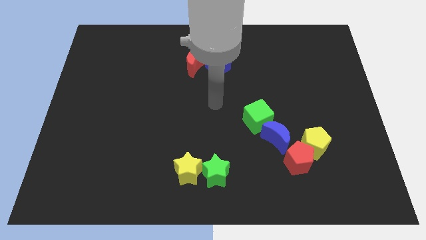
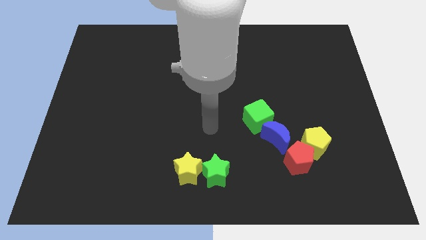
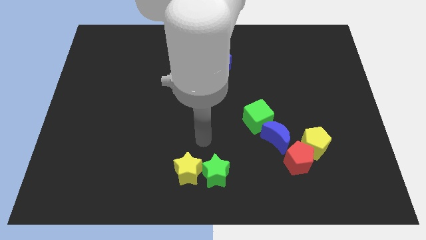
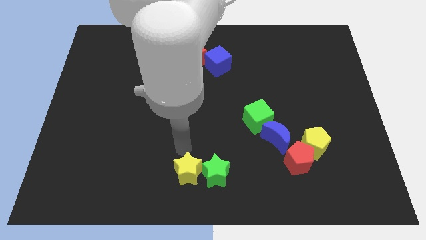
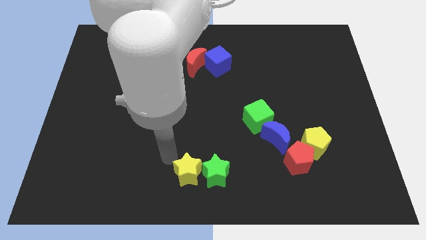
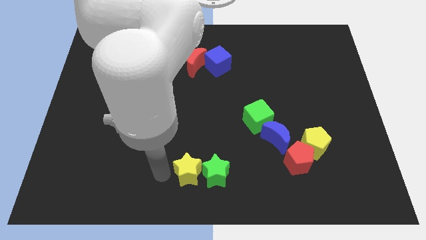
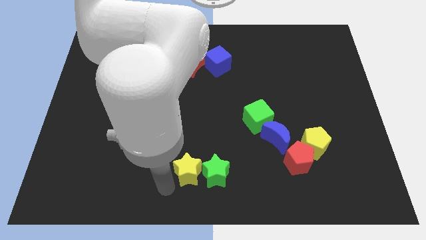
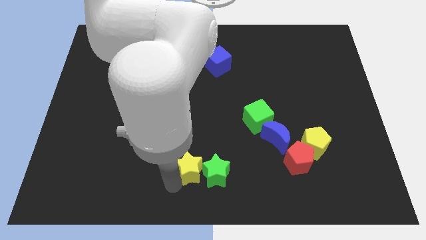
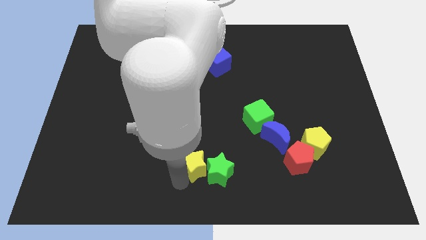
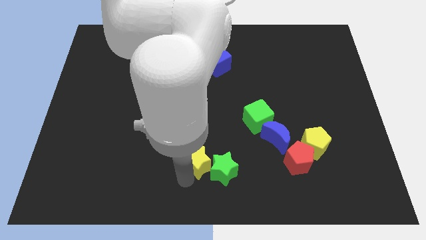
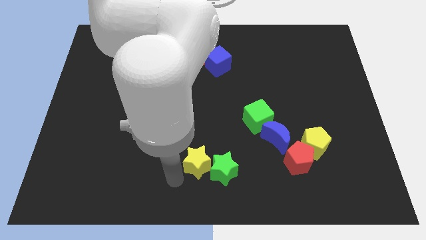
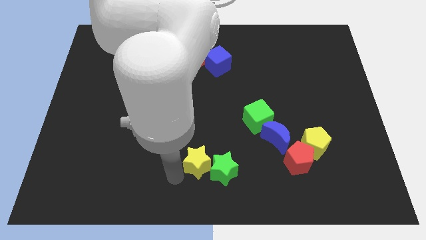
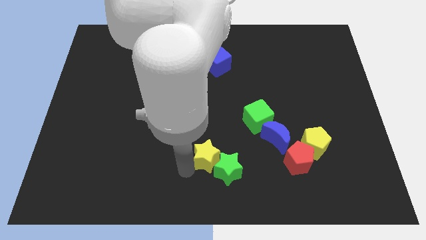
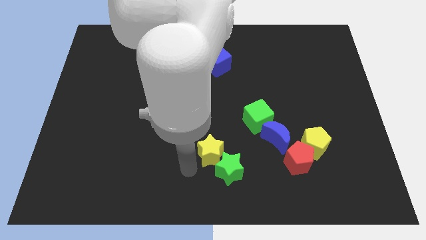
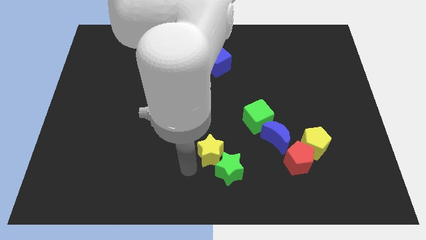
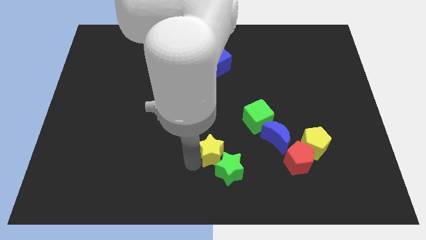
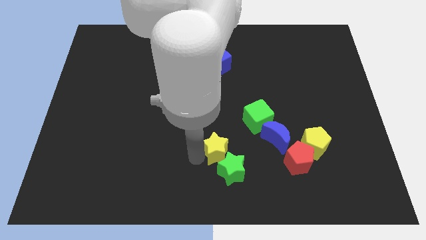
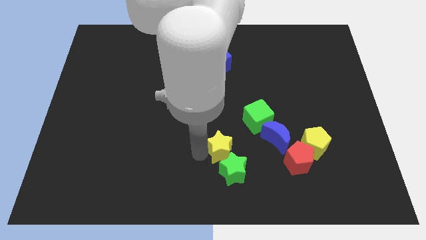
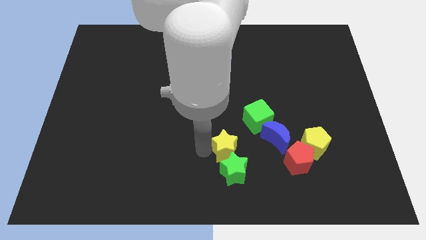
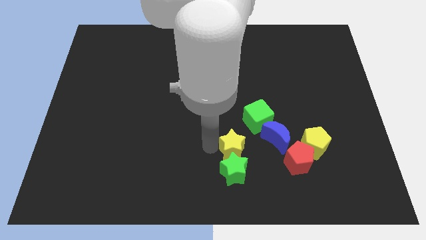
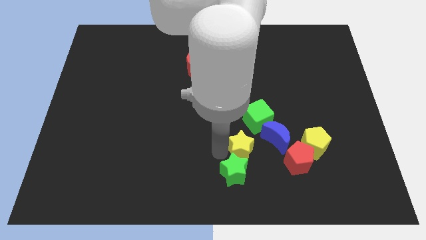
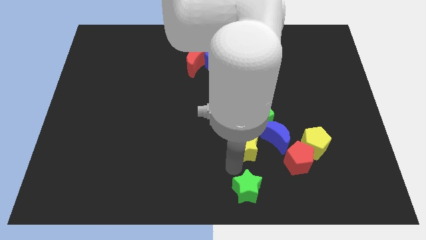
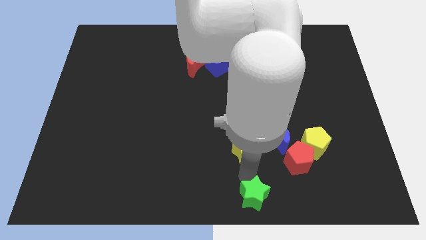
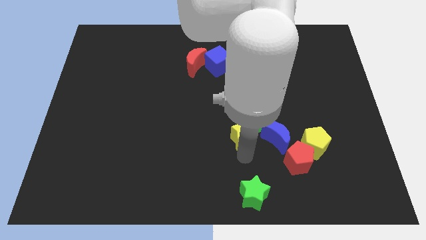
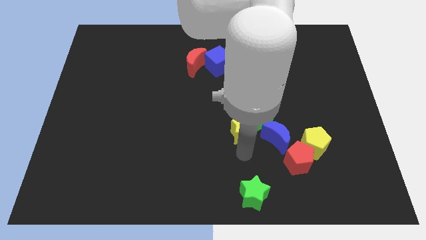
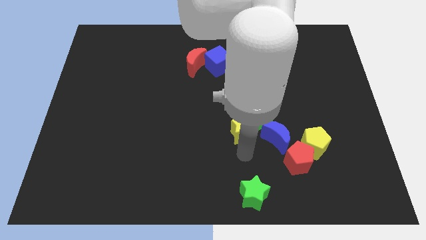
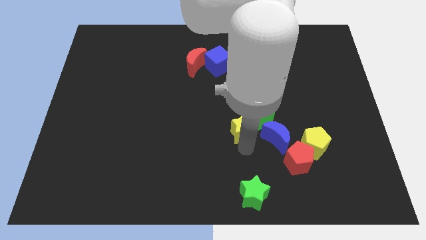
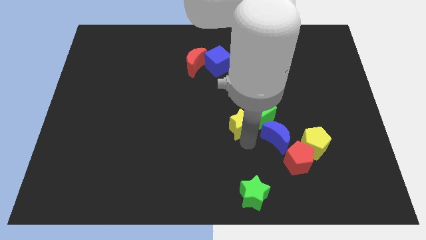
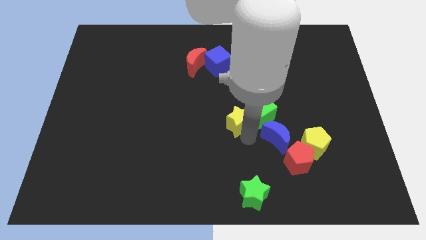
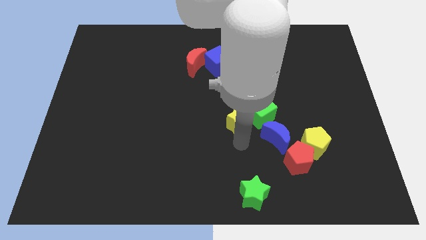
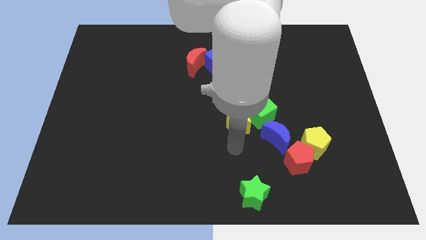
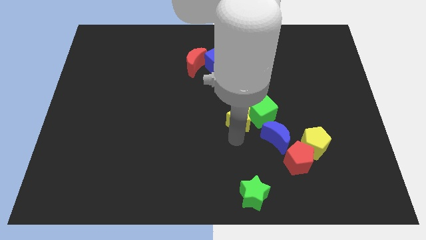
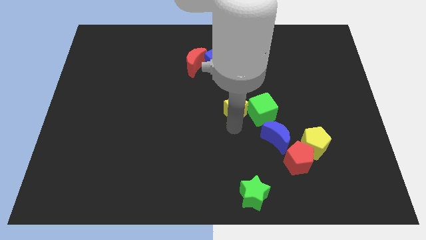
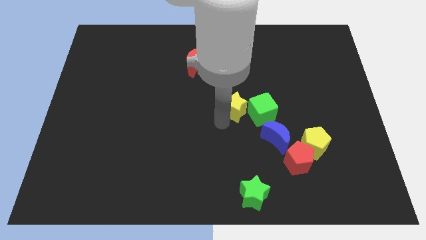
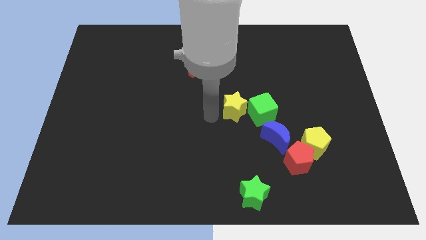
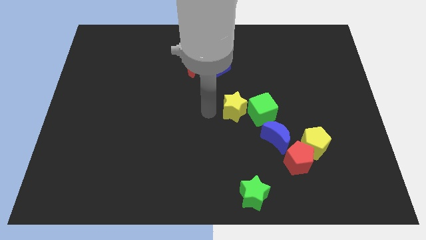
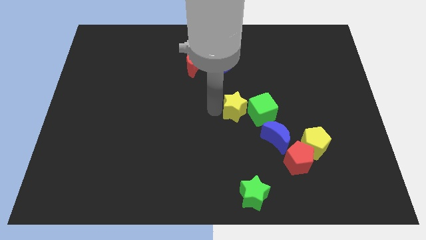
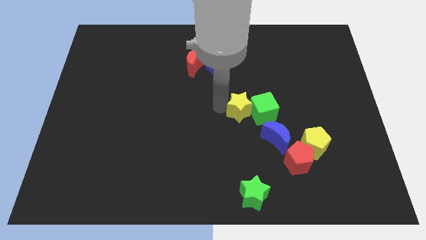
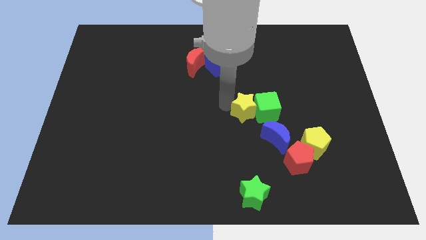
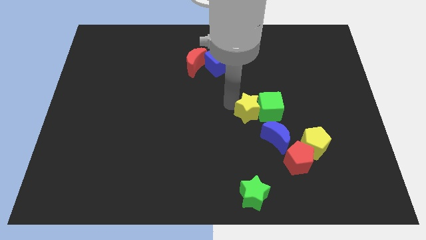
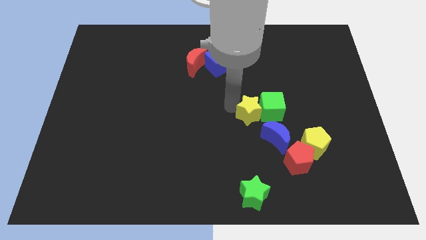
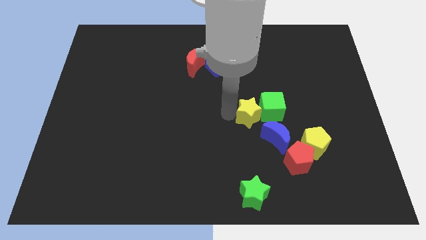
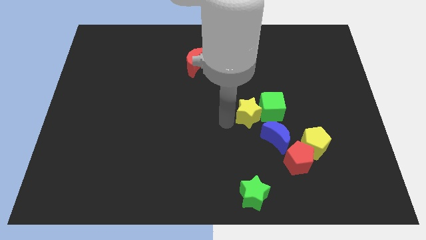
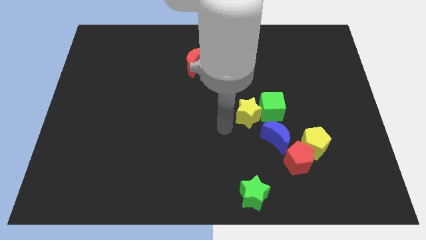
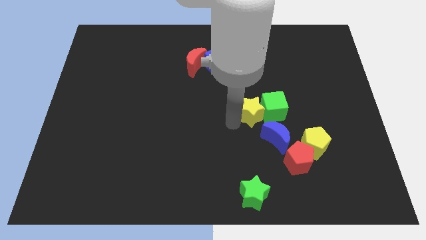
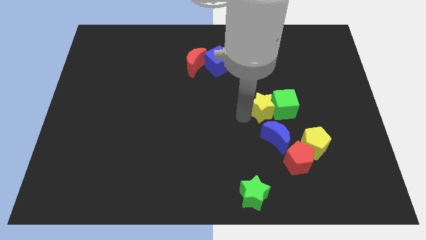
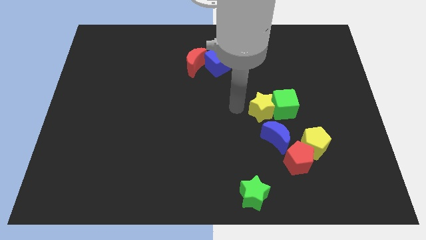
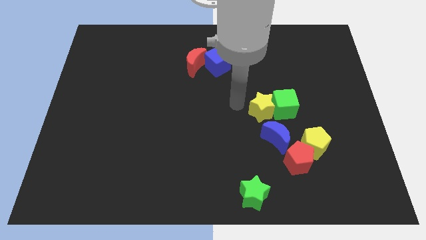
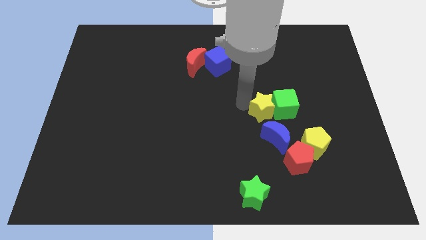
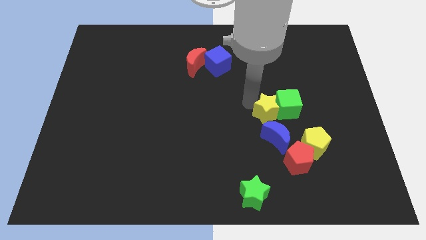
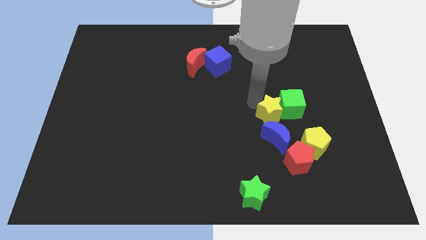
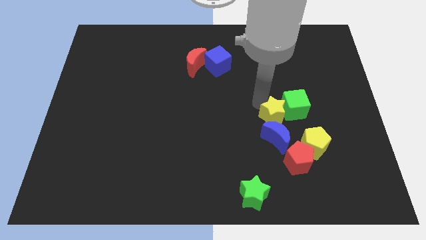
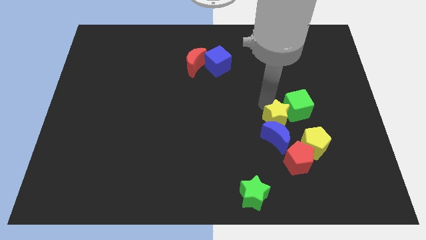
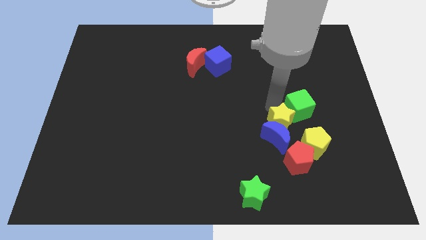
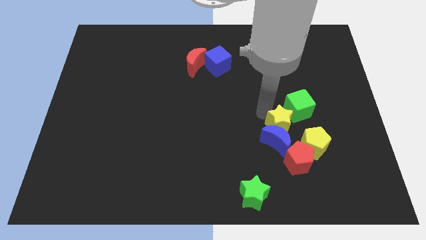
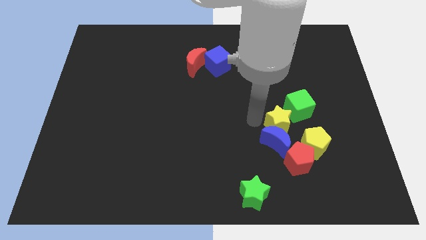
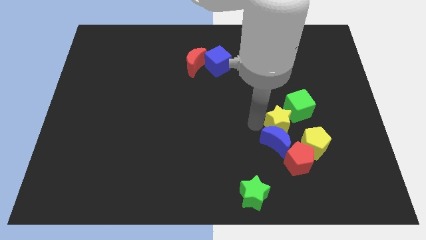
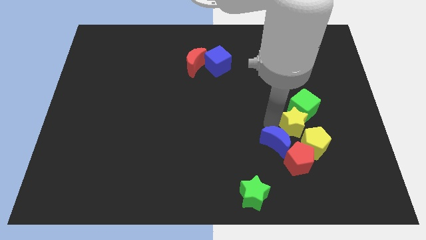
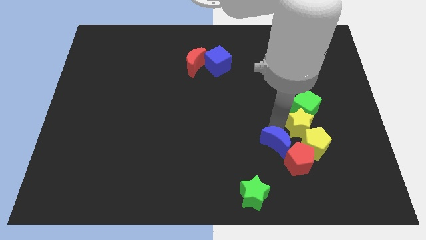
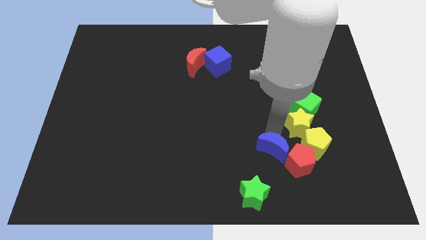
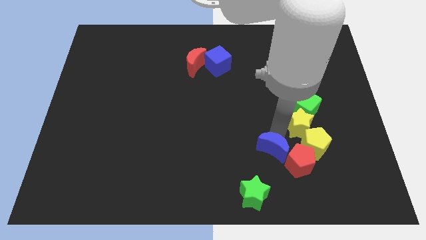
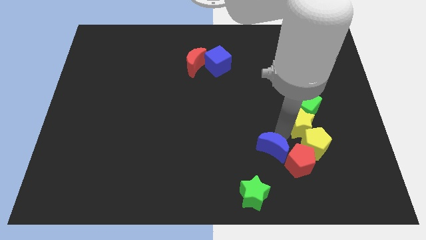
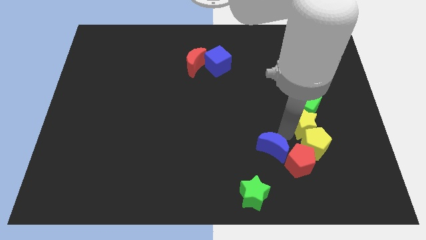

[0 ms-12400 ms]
put the yellow star to the top right of the red pentagon
